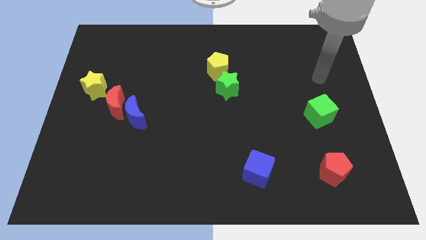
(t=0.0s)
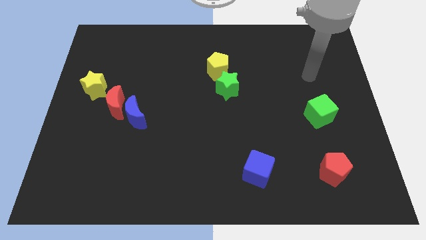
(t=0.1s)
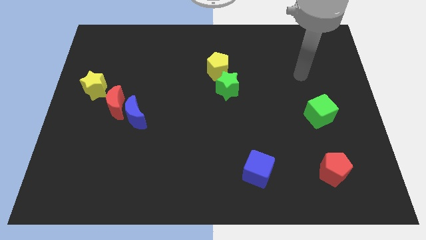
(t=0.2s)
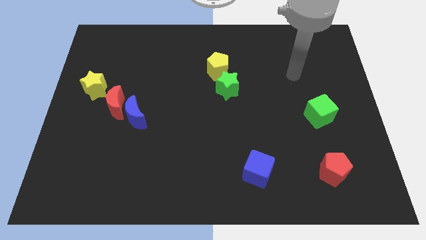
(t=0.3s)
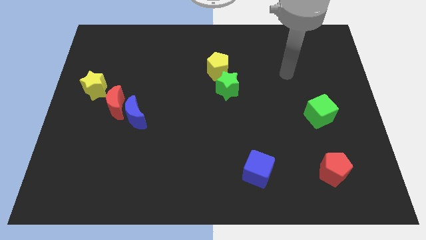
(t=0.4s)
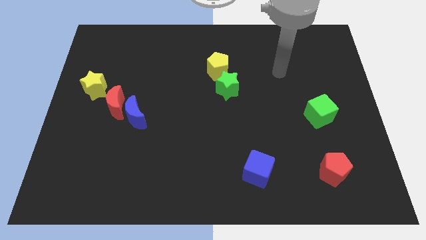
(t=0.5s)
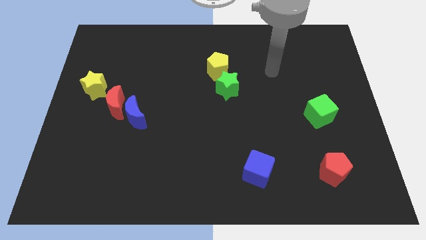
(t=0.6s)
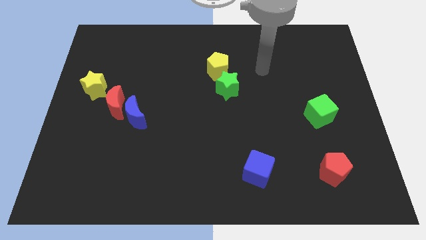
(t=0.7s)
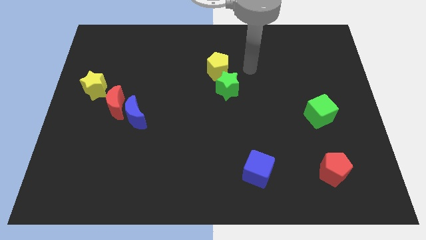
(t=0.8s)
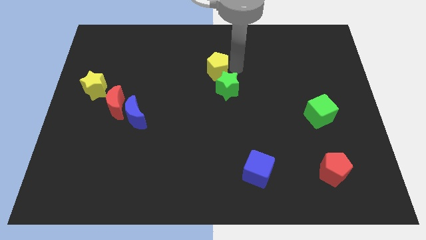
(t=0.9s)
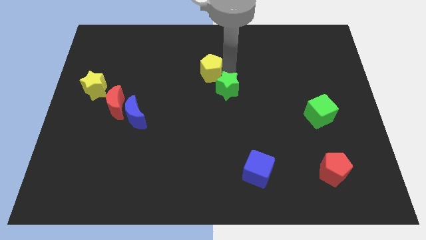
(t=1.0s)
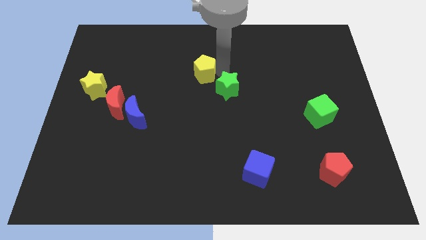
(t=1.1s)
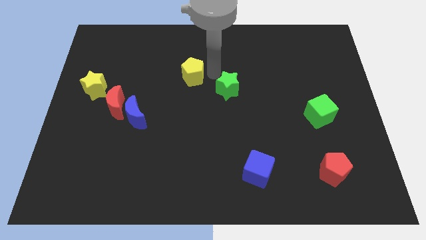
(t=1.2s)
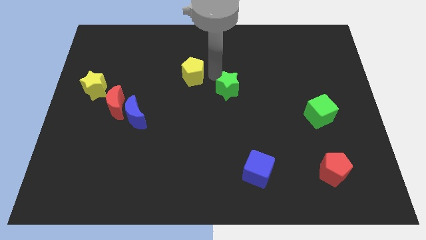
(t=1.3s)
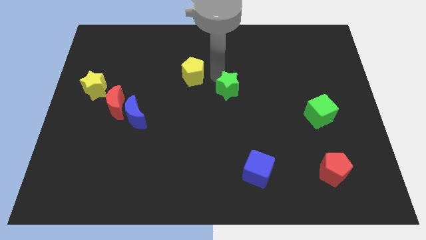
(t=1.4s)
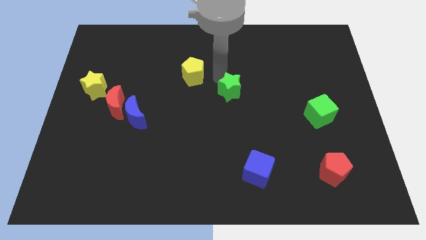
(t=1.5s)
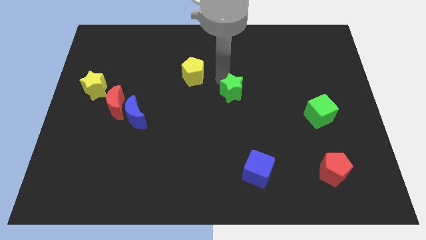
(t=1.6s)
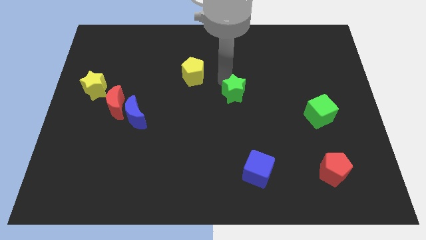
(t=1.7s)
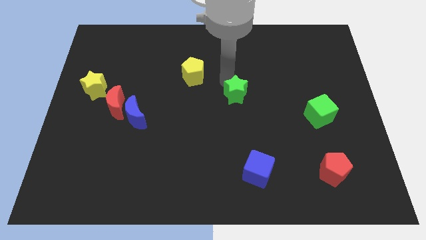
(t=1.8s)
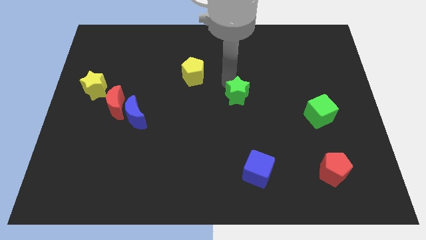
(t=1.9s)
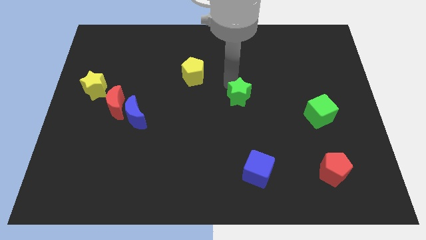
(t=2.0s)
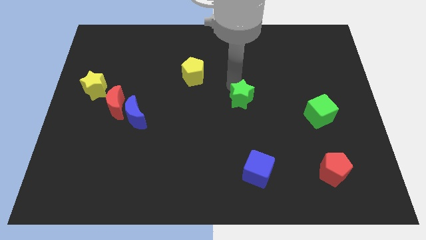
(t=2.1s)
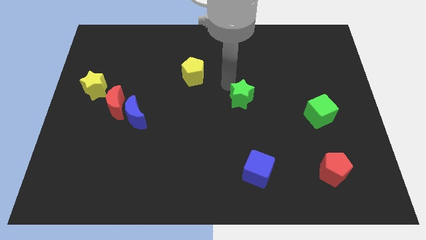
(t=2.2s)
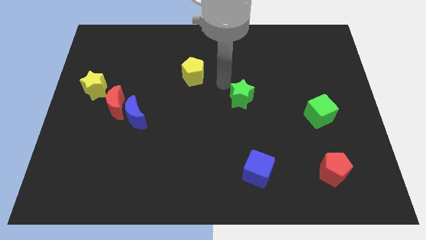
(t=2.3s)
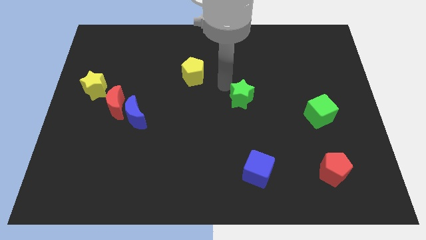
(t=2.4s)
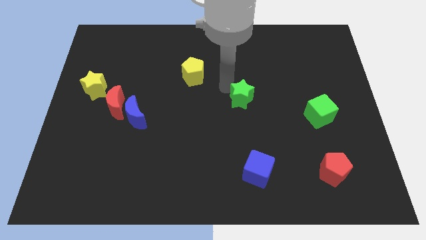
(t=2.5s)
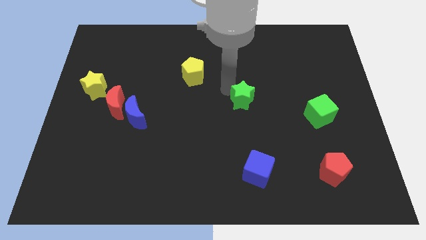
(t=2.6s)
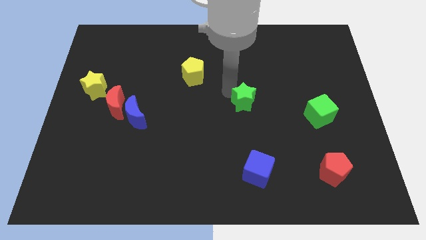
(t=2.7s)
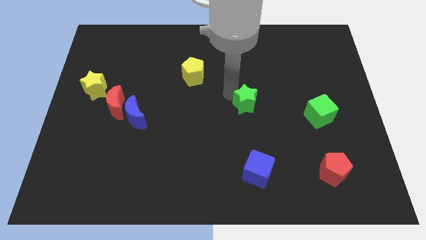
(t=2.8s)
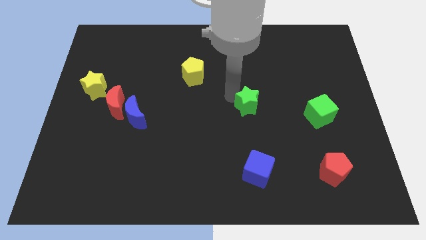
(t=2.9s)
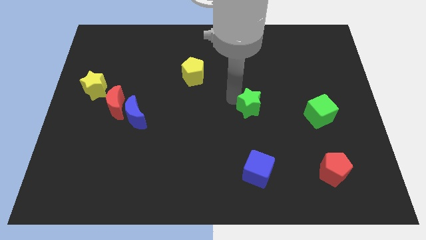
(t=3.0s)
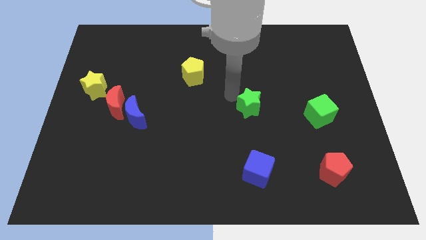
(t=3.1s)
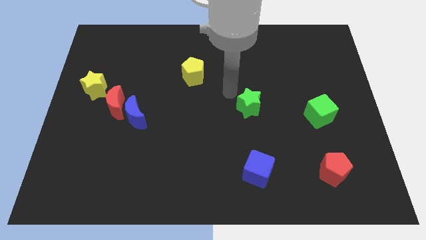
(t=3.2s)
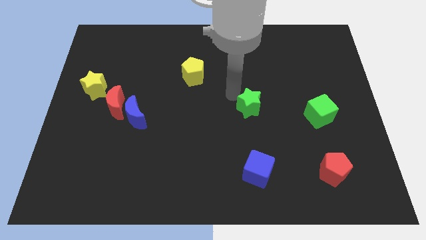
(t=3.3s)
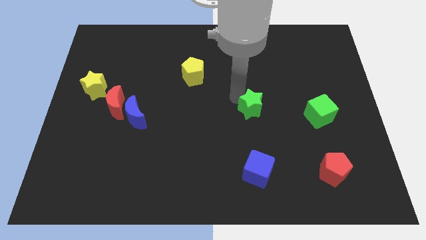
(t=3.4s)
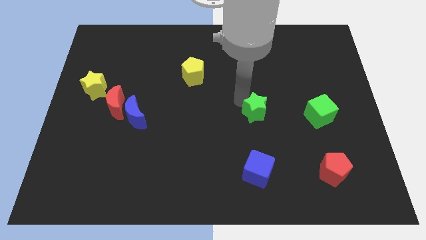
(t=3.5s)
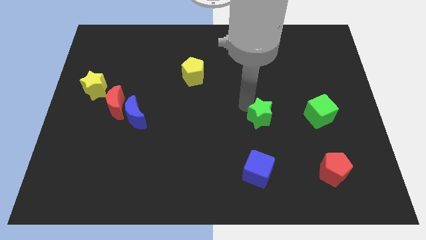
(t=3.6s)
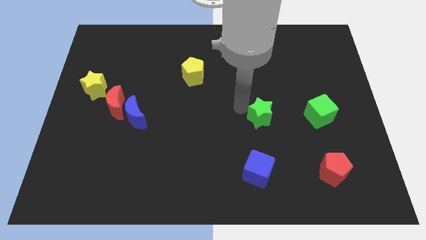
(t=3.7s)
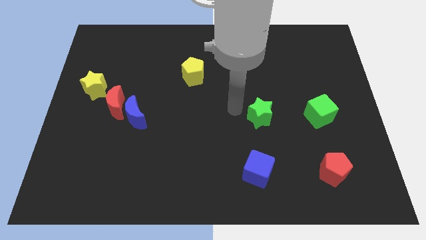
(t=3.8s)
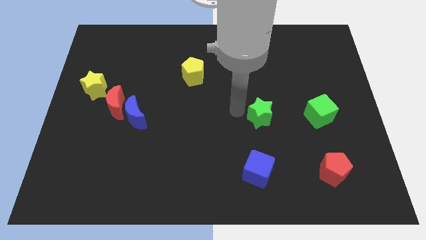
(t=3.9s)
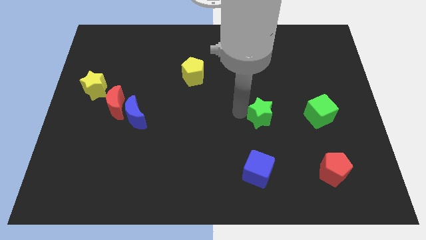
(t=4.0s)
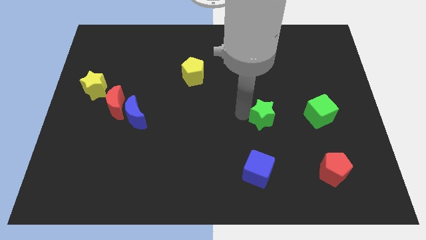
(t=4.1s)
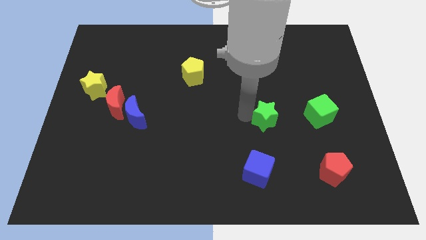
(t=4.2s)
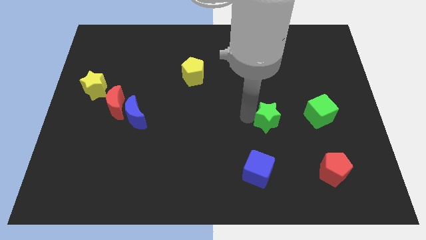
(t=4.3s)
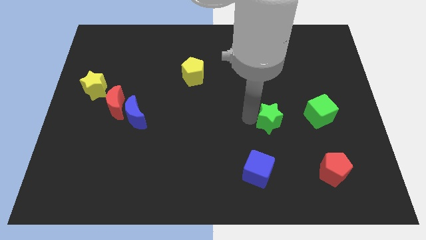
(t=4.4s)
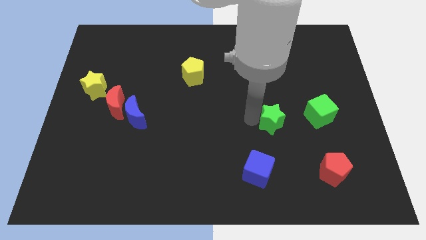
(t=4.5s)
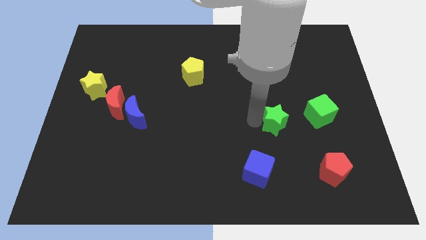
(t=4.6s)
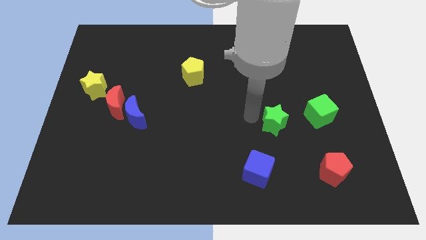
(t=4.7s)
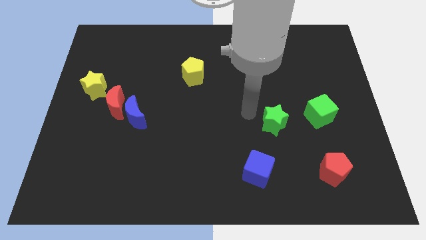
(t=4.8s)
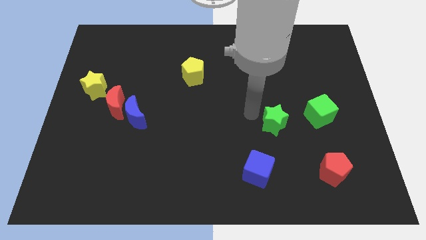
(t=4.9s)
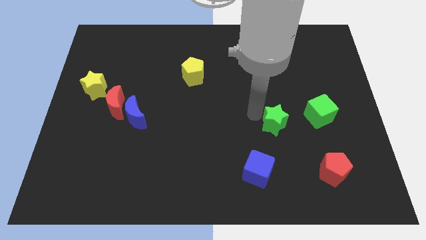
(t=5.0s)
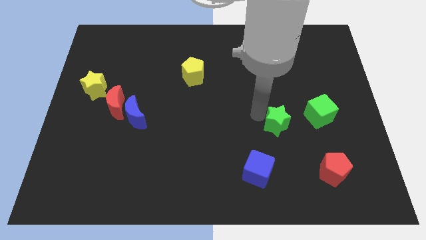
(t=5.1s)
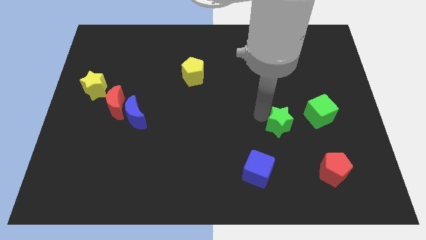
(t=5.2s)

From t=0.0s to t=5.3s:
put the green star diagonally down and to the left of the green cube

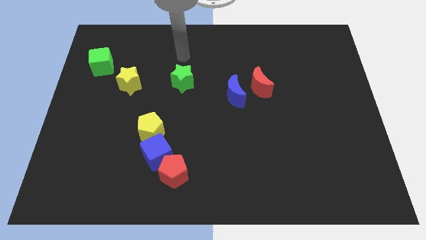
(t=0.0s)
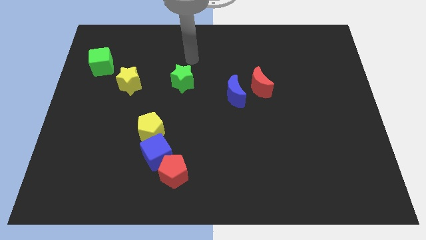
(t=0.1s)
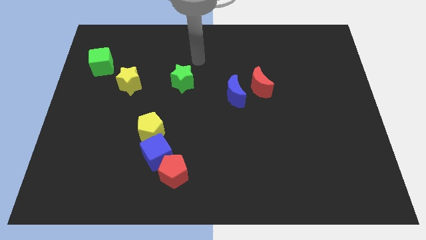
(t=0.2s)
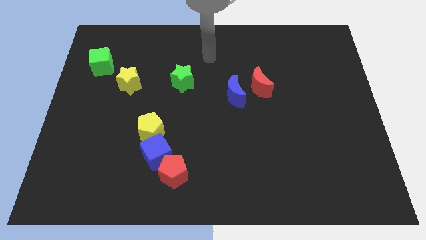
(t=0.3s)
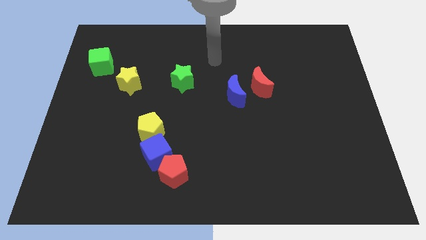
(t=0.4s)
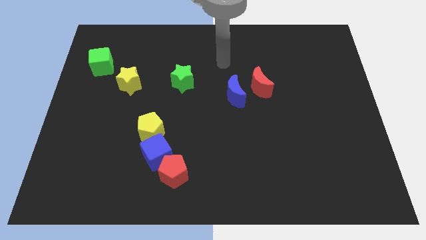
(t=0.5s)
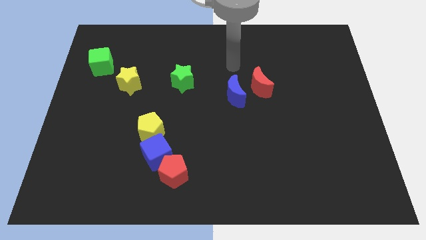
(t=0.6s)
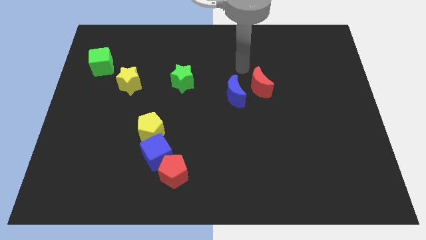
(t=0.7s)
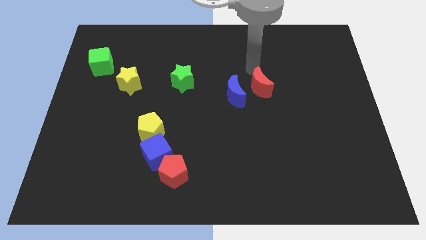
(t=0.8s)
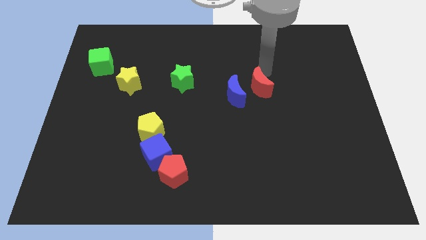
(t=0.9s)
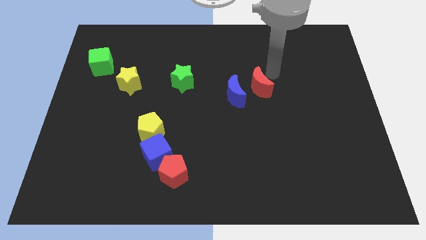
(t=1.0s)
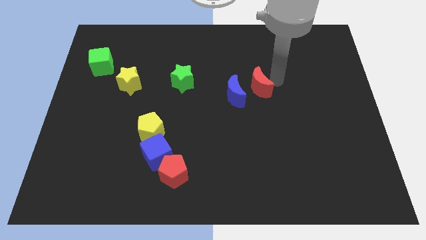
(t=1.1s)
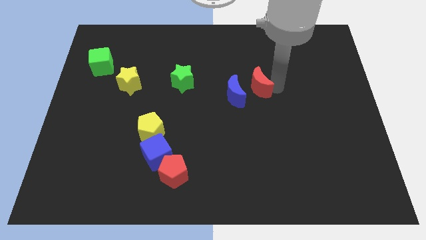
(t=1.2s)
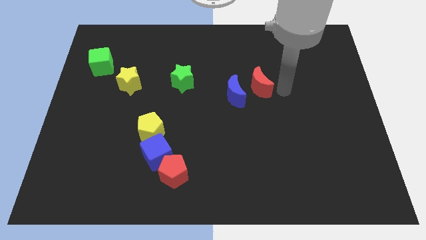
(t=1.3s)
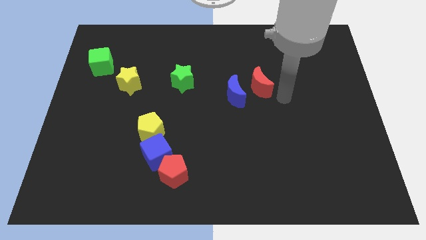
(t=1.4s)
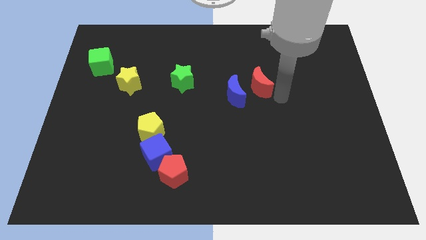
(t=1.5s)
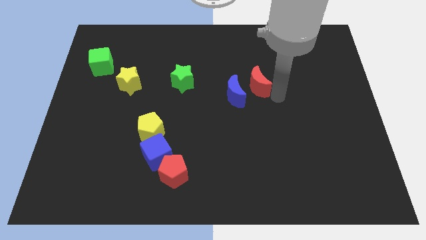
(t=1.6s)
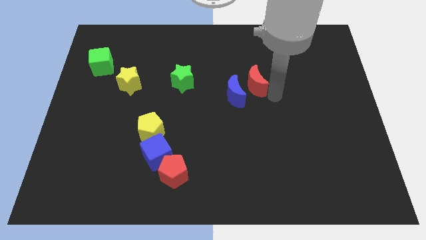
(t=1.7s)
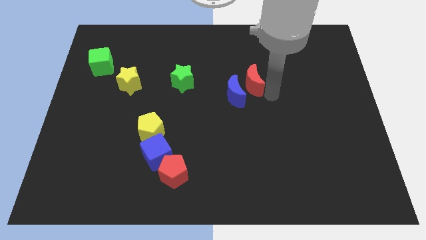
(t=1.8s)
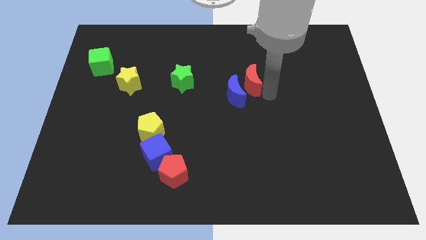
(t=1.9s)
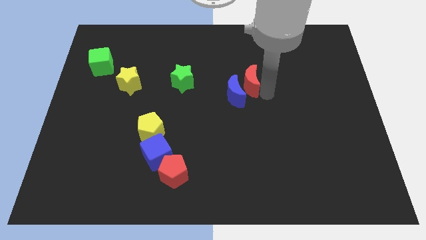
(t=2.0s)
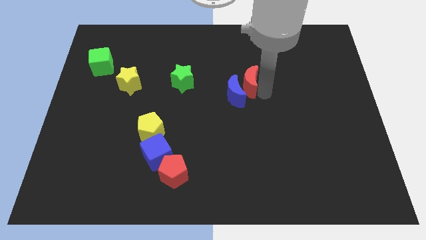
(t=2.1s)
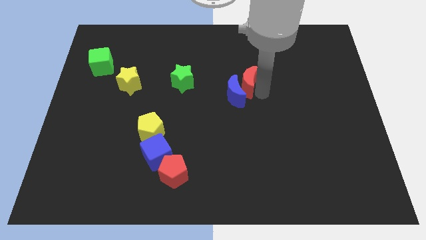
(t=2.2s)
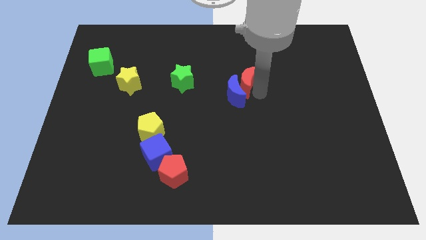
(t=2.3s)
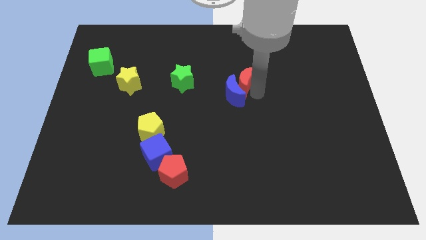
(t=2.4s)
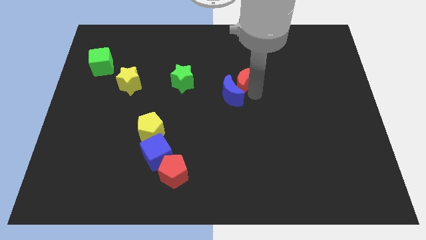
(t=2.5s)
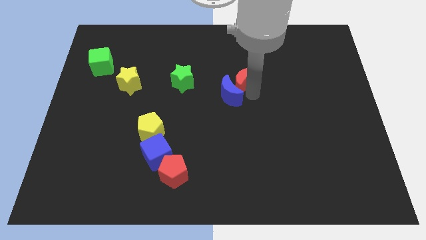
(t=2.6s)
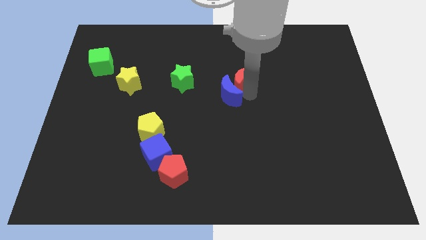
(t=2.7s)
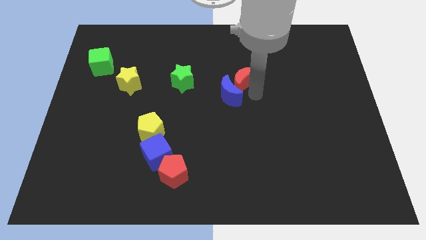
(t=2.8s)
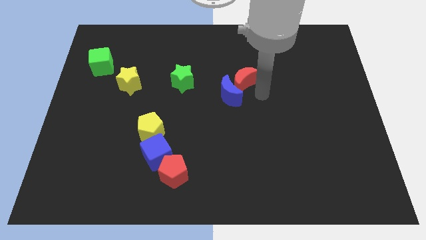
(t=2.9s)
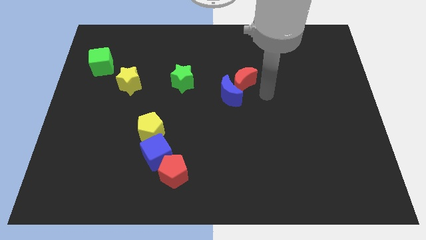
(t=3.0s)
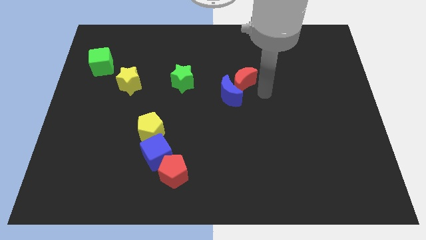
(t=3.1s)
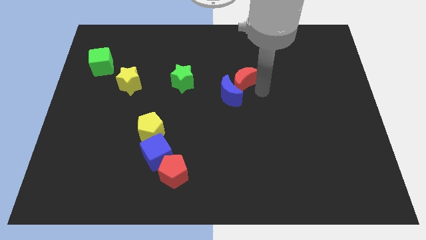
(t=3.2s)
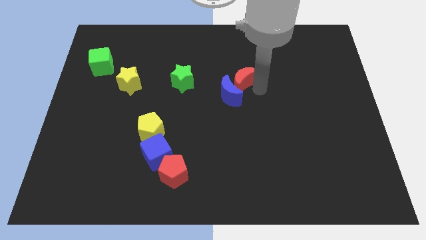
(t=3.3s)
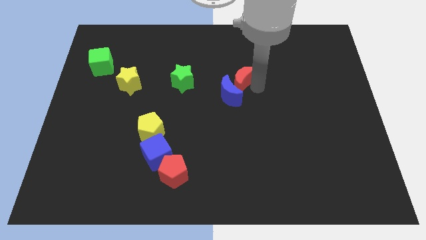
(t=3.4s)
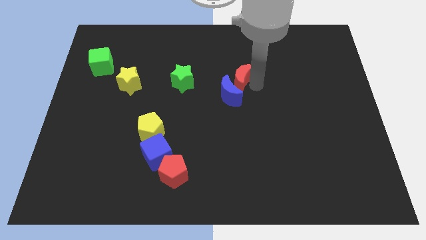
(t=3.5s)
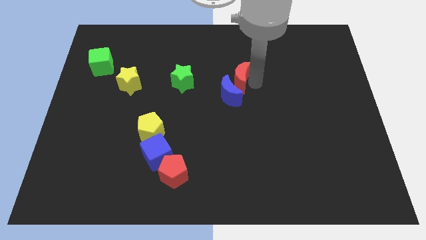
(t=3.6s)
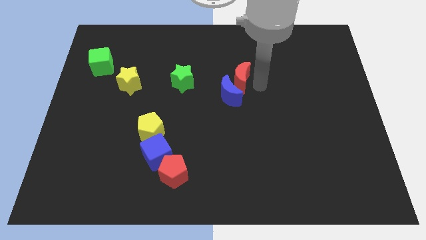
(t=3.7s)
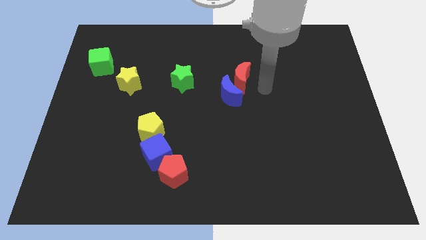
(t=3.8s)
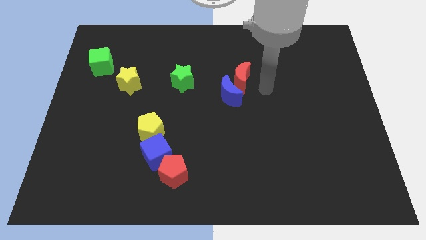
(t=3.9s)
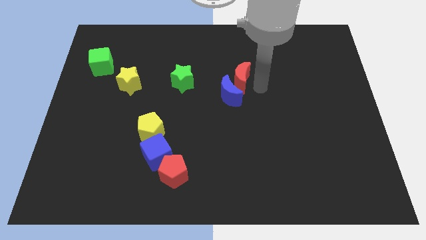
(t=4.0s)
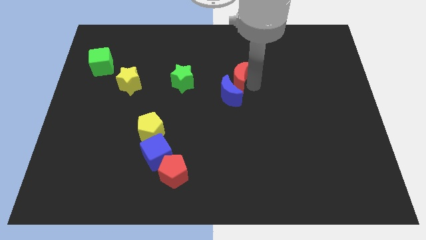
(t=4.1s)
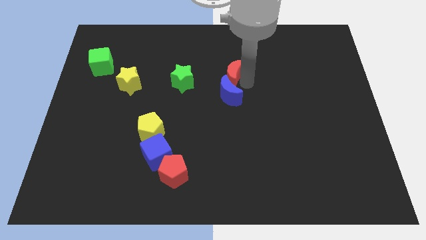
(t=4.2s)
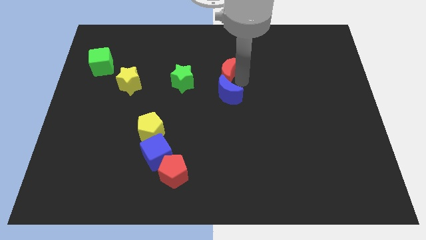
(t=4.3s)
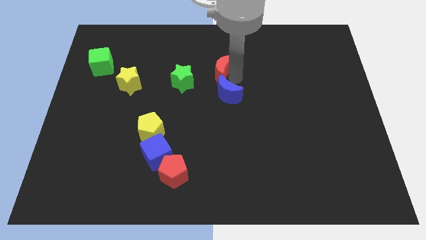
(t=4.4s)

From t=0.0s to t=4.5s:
move the red moon to the top right side of the green star
